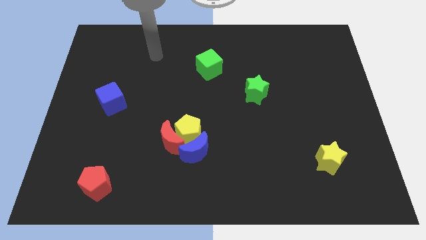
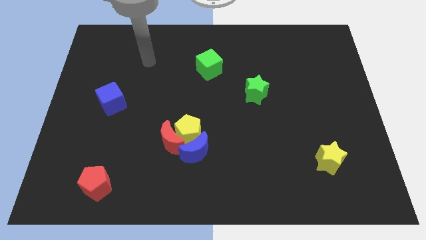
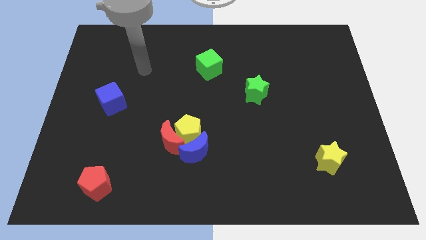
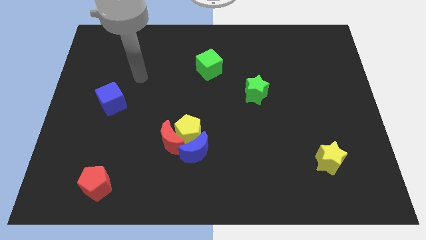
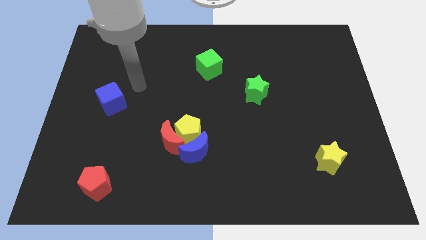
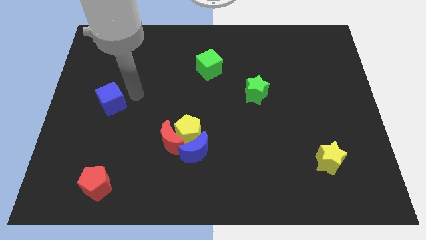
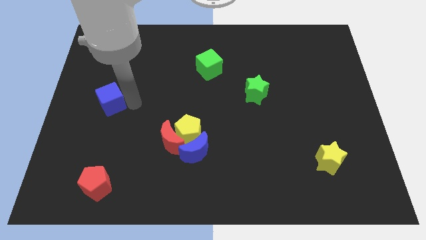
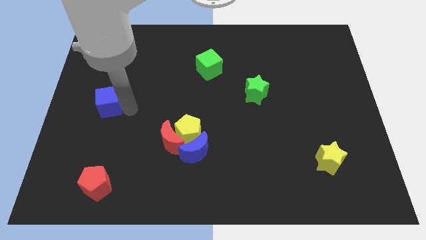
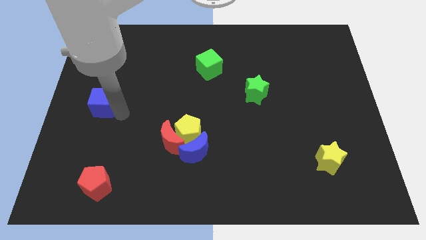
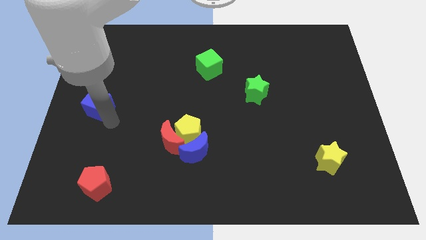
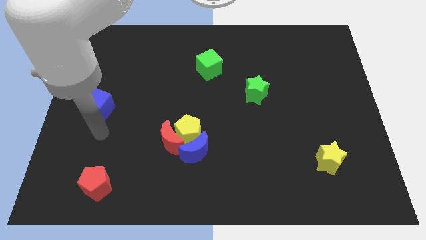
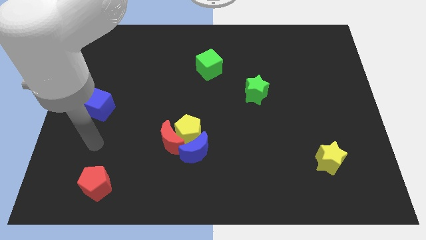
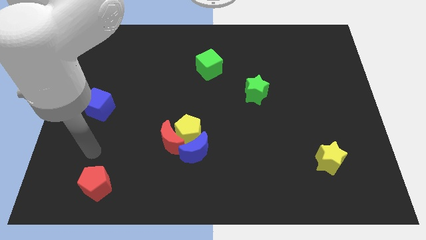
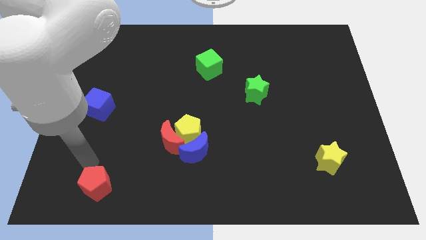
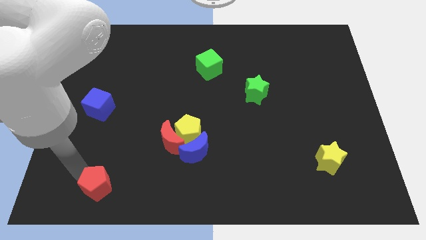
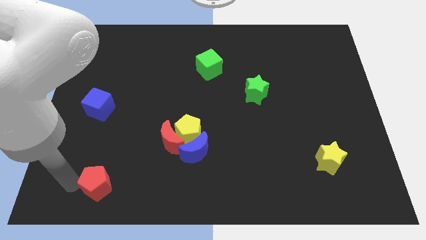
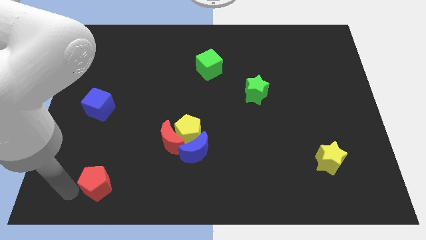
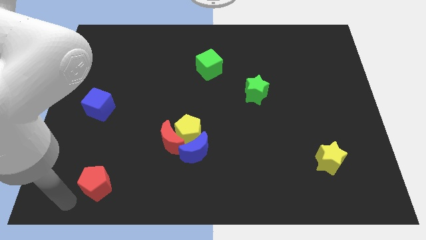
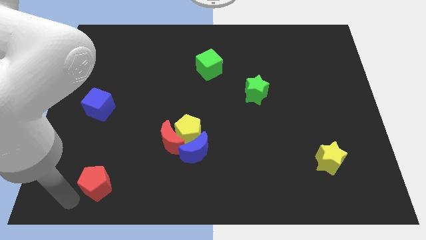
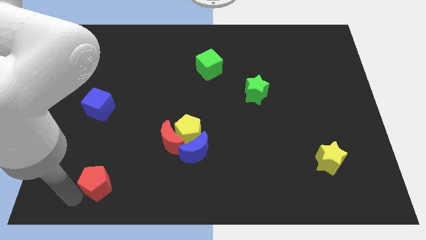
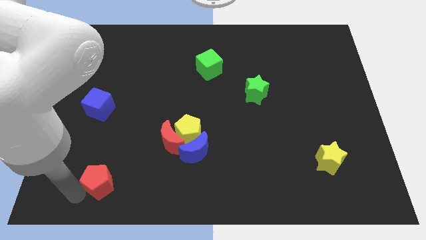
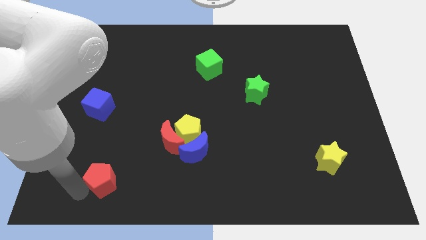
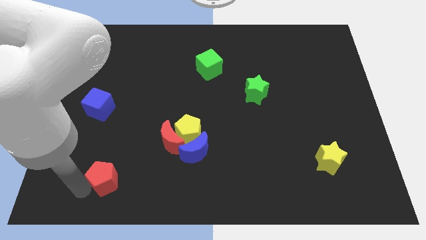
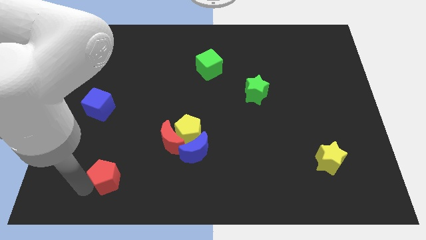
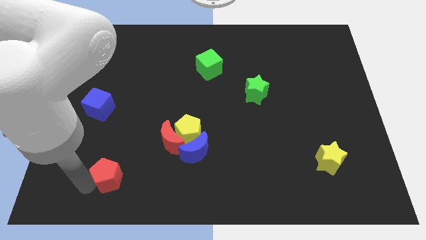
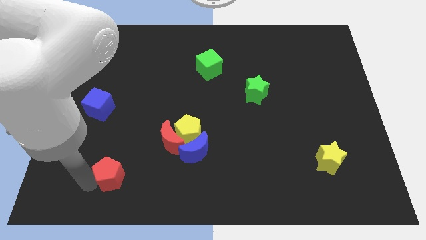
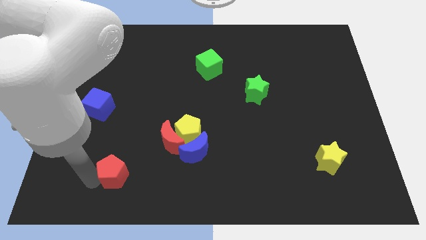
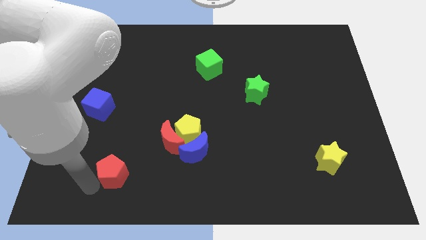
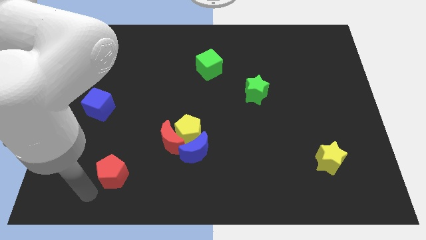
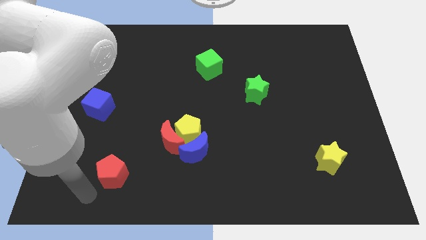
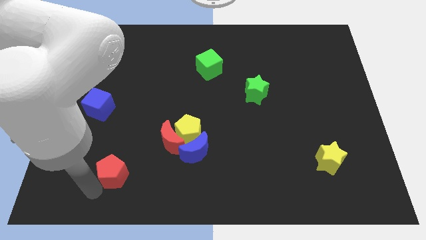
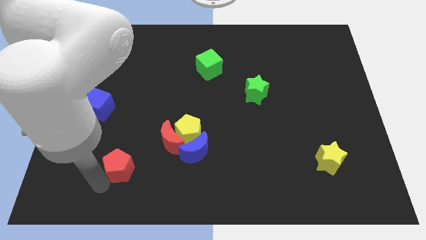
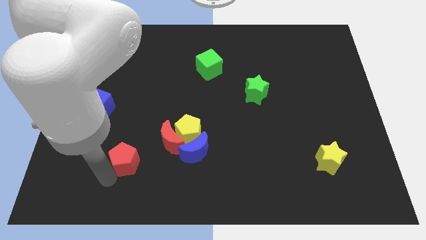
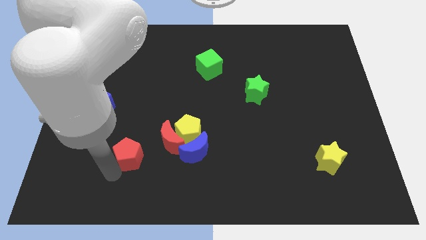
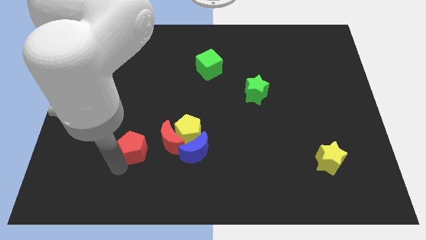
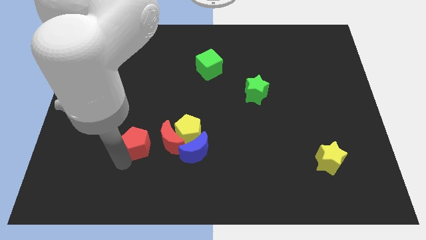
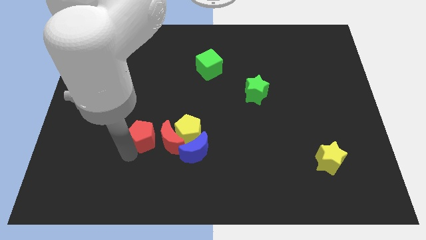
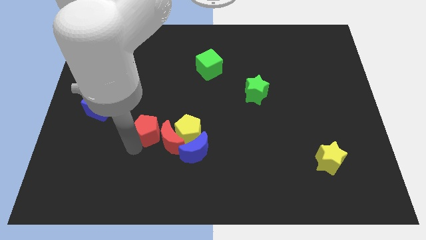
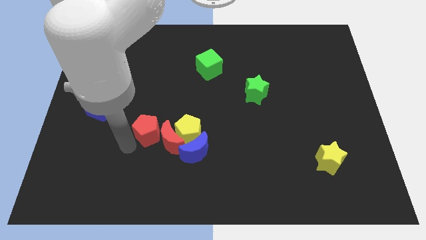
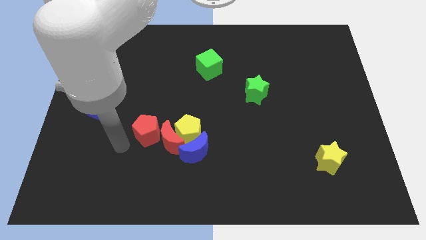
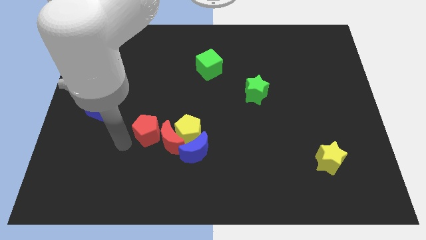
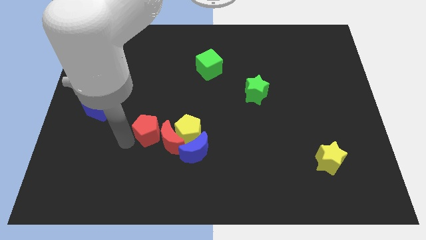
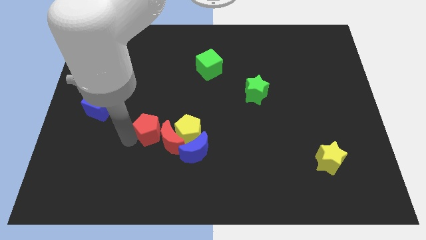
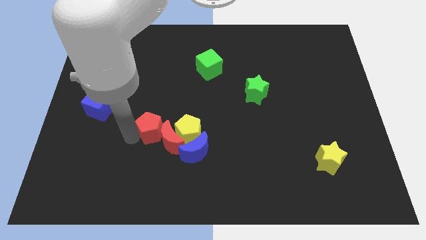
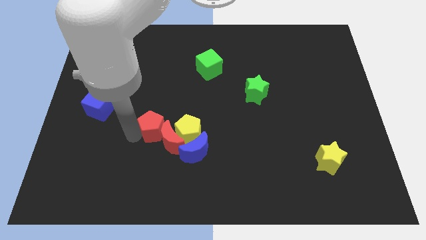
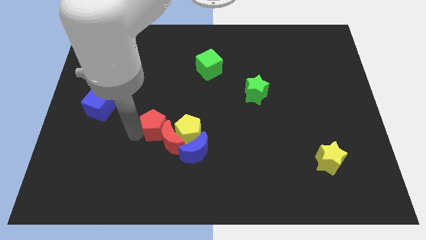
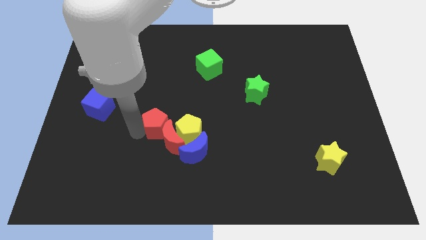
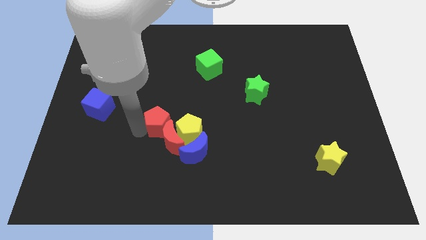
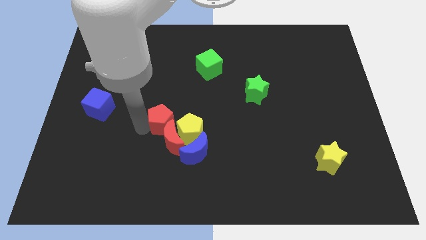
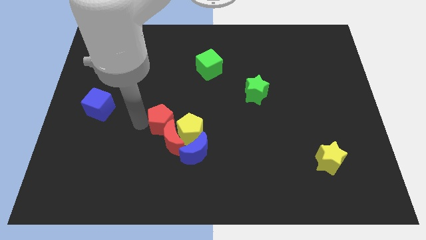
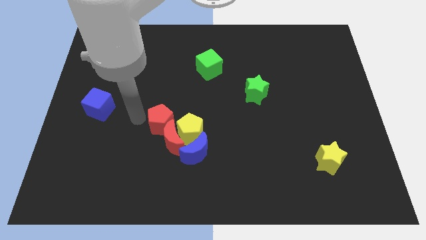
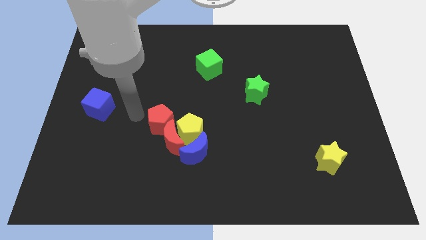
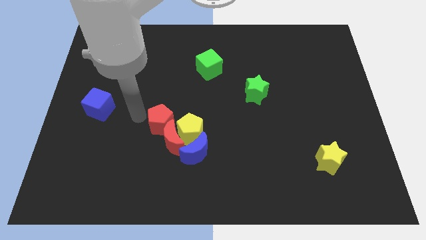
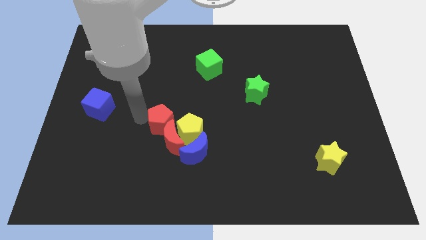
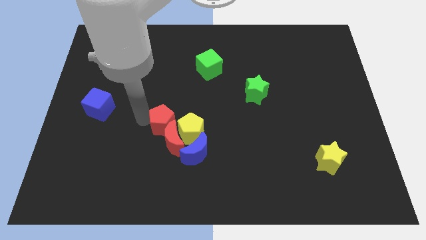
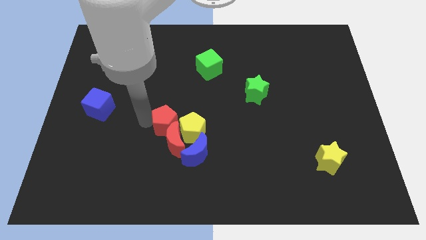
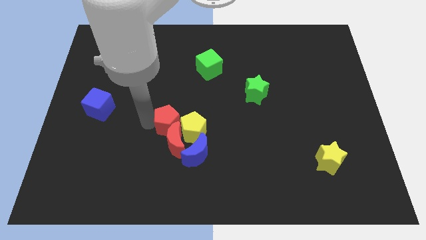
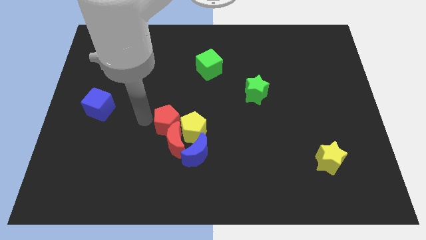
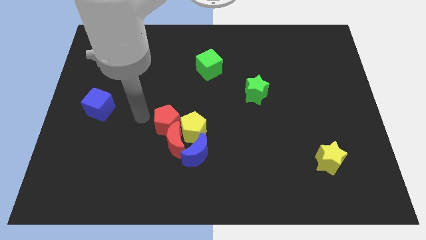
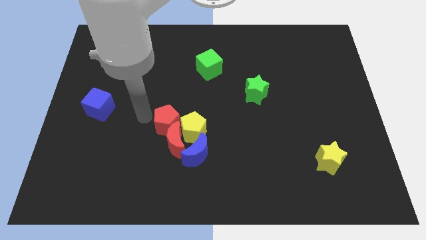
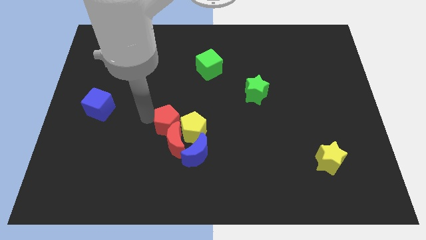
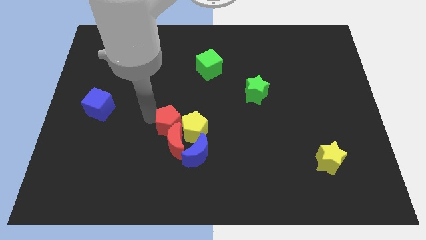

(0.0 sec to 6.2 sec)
move the red pentagon next to the yellow pentagon

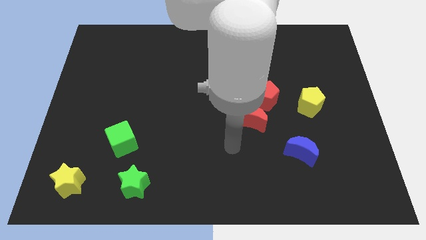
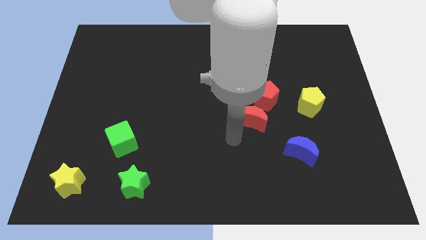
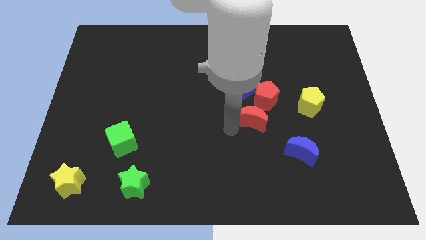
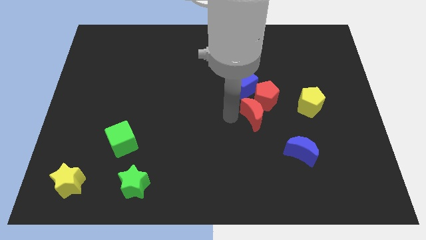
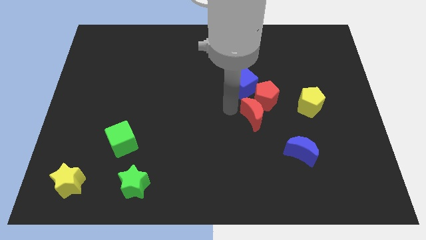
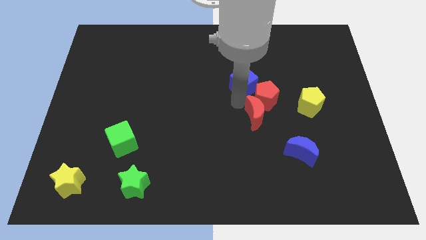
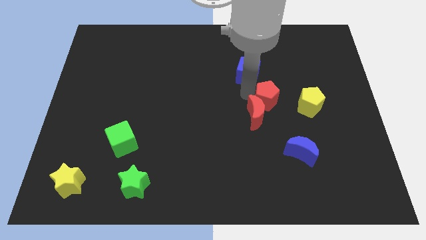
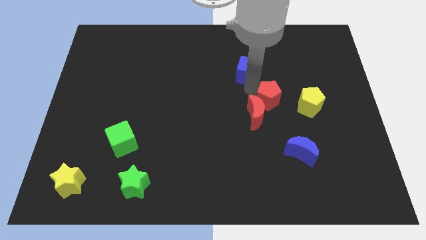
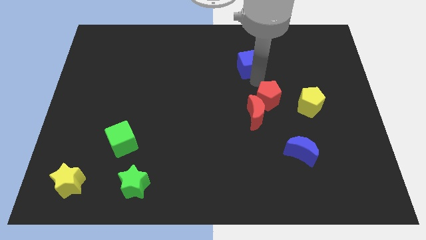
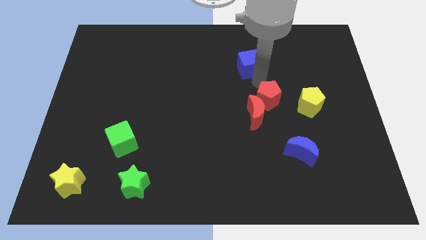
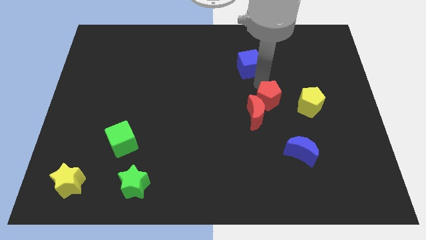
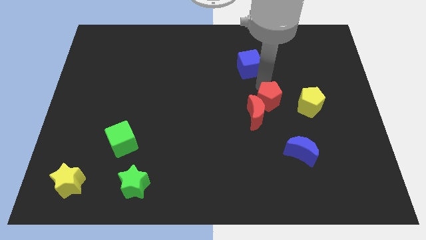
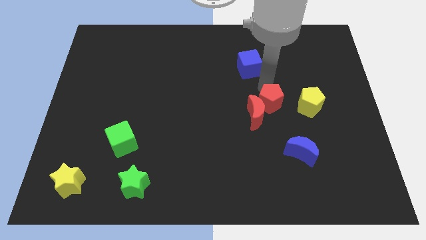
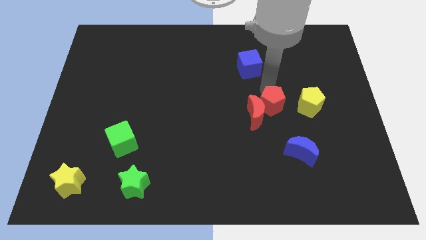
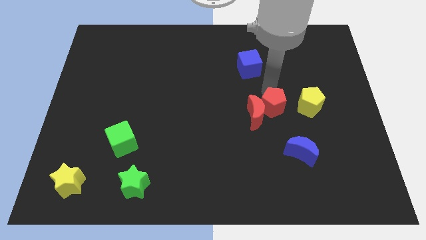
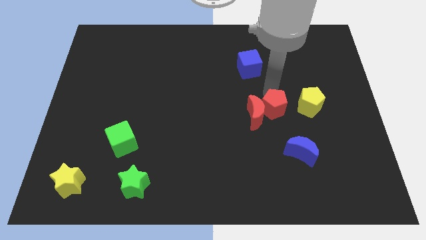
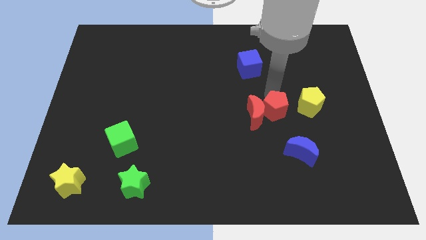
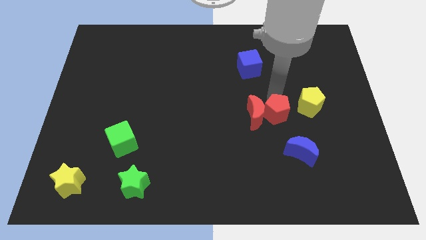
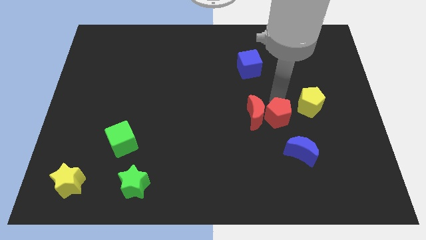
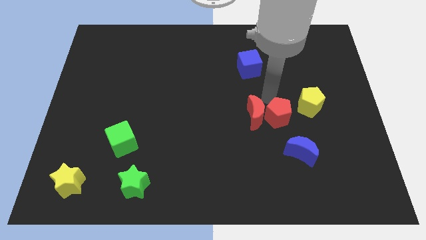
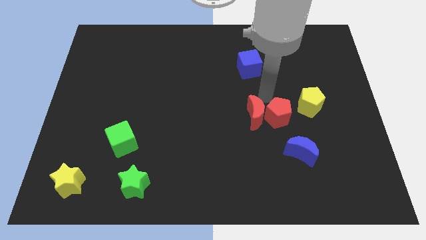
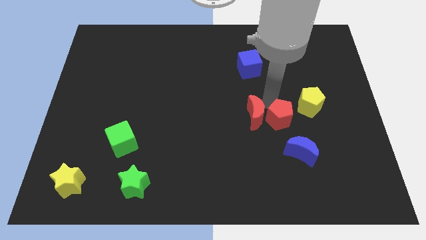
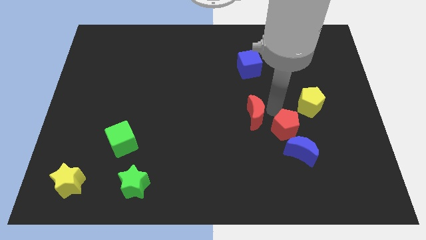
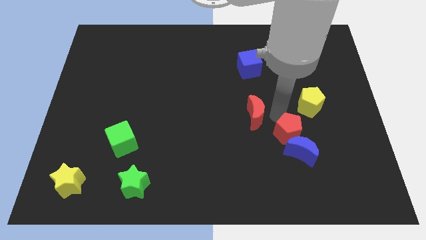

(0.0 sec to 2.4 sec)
push the red pentagon to the blue moon
